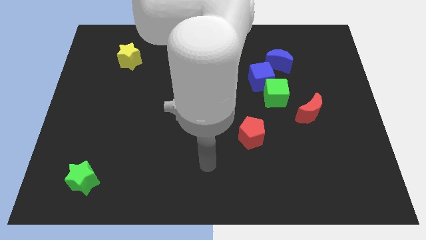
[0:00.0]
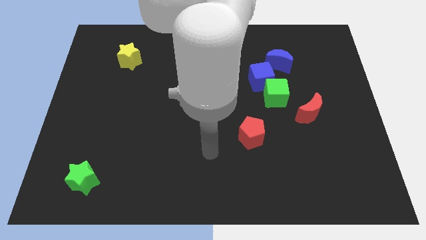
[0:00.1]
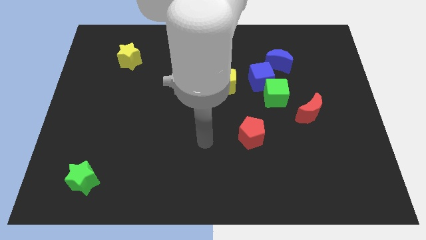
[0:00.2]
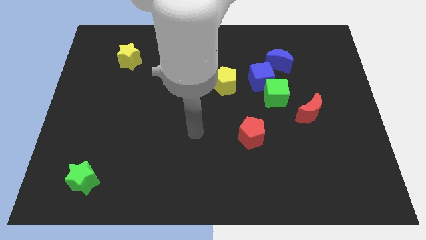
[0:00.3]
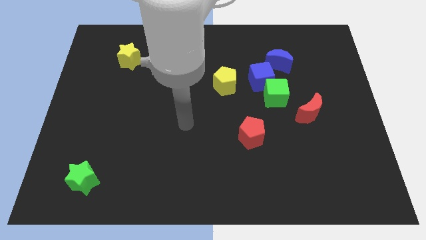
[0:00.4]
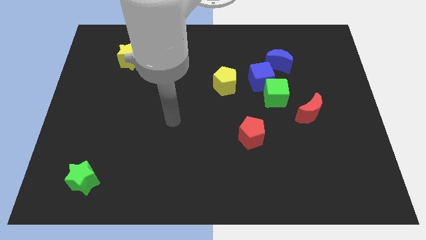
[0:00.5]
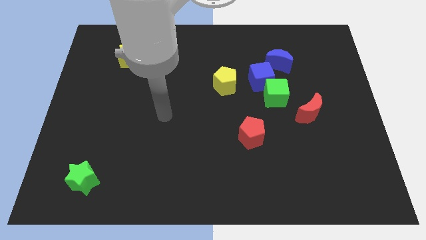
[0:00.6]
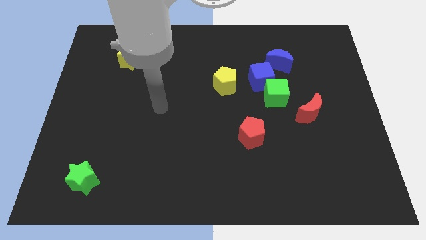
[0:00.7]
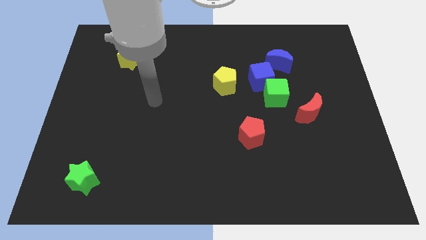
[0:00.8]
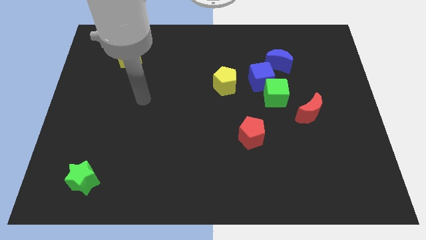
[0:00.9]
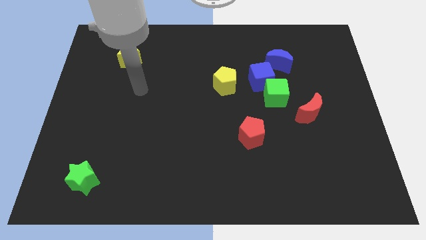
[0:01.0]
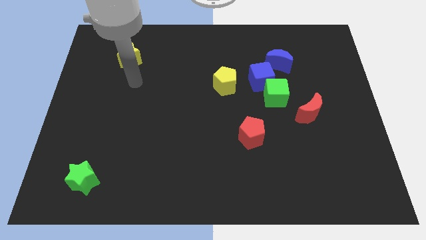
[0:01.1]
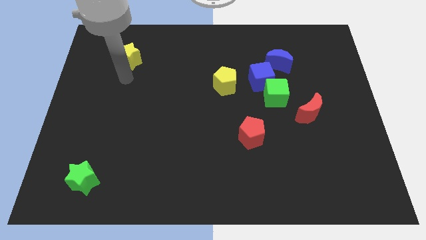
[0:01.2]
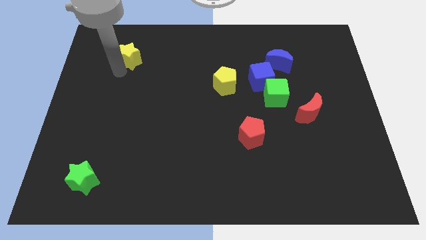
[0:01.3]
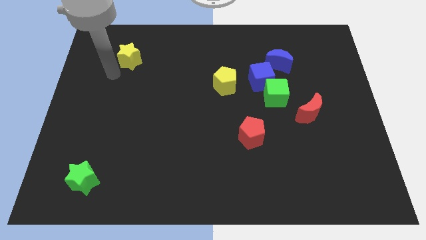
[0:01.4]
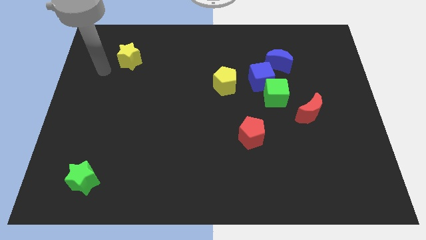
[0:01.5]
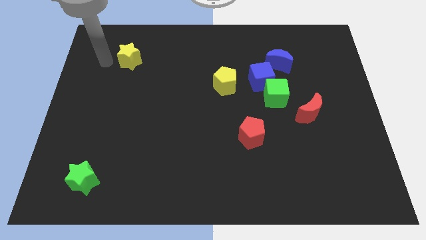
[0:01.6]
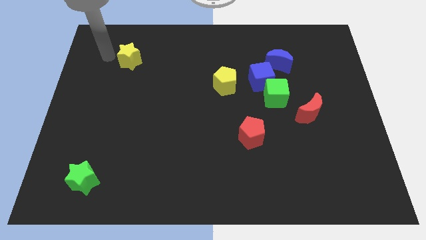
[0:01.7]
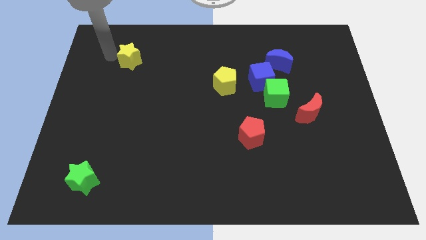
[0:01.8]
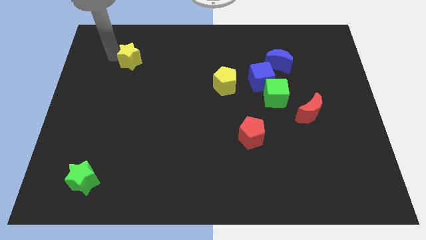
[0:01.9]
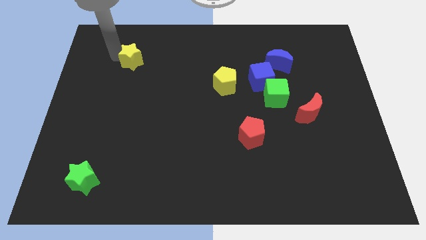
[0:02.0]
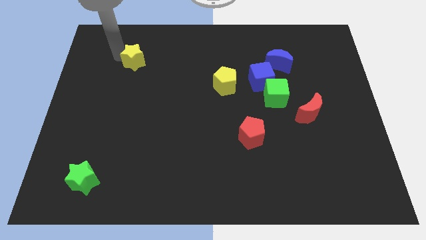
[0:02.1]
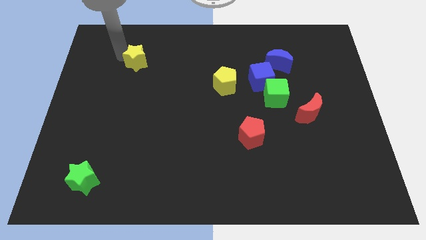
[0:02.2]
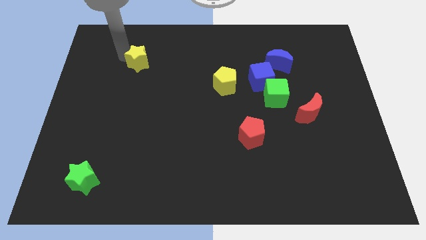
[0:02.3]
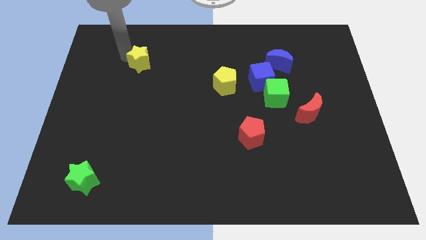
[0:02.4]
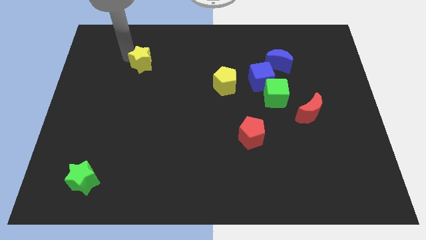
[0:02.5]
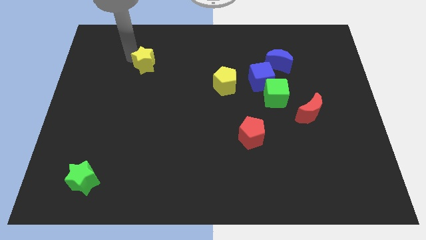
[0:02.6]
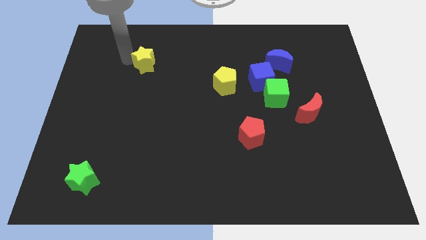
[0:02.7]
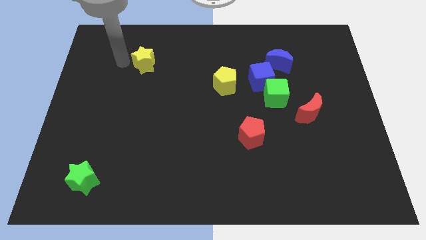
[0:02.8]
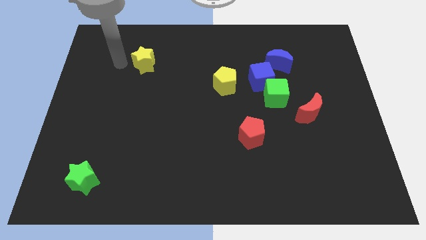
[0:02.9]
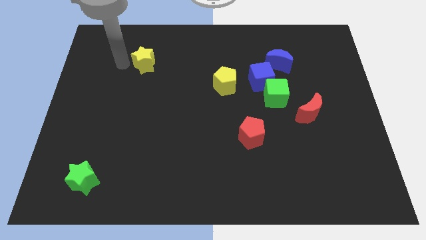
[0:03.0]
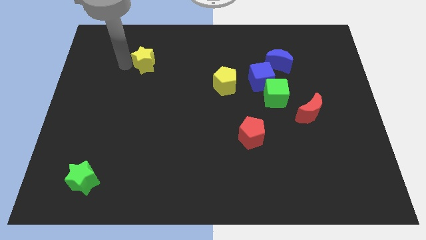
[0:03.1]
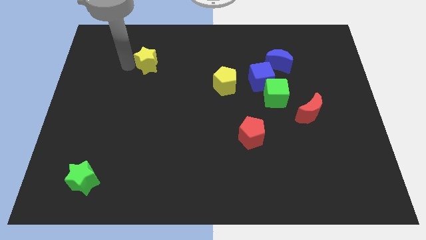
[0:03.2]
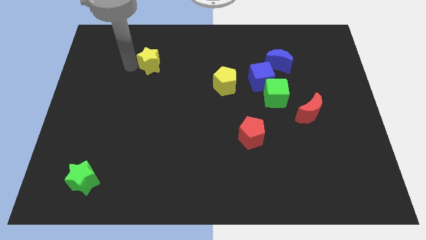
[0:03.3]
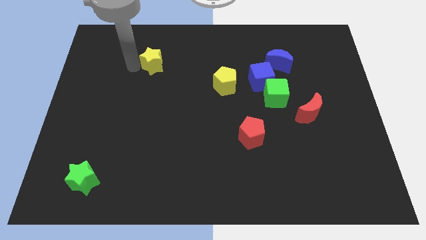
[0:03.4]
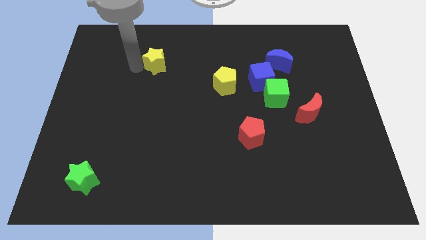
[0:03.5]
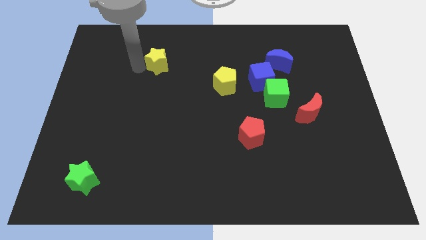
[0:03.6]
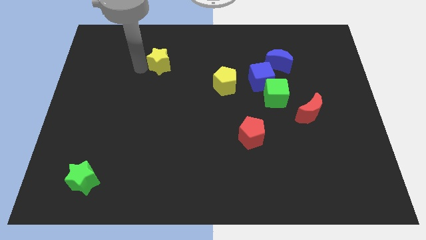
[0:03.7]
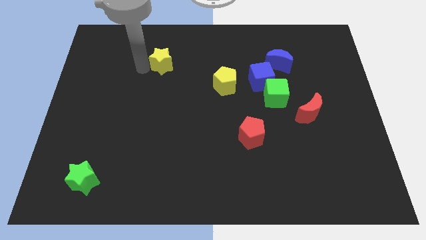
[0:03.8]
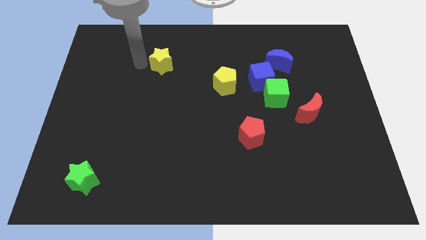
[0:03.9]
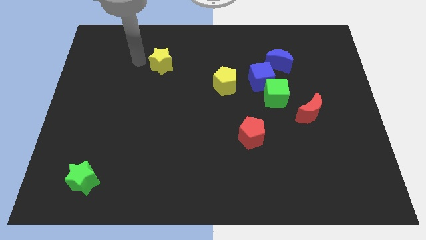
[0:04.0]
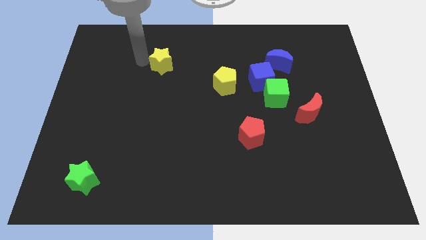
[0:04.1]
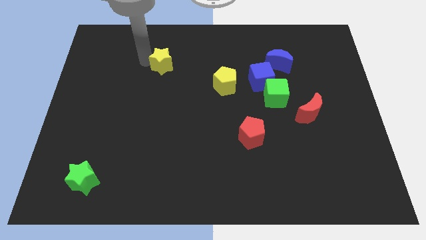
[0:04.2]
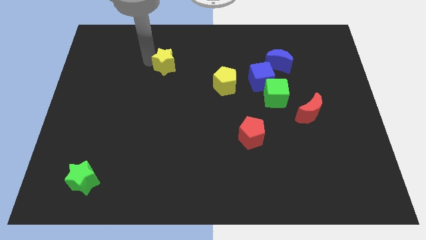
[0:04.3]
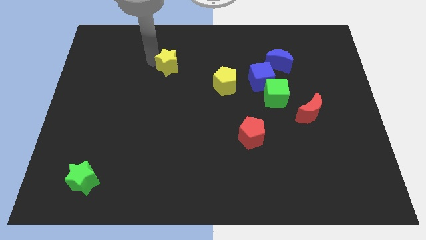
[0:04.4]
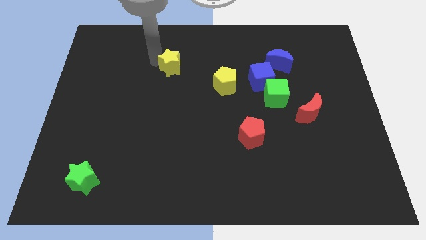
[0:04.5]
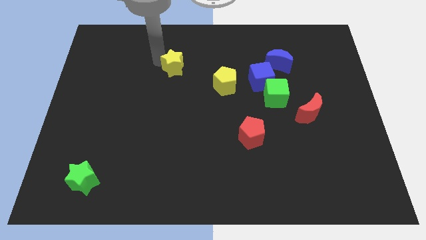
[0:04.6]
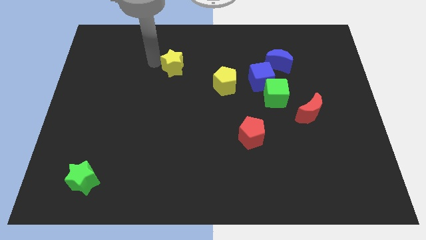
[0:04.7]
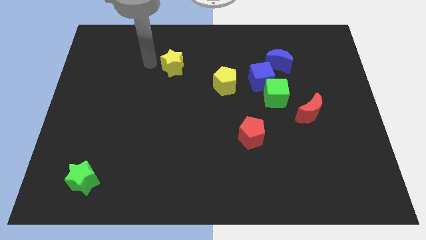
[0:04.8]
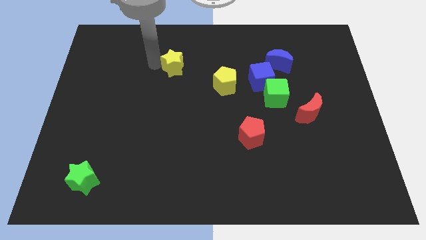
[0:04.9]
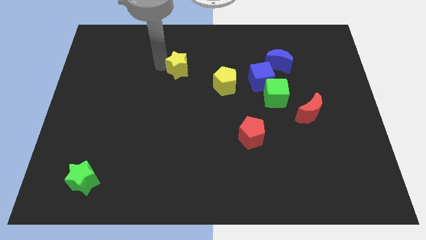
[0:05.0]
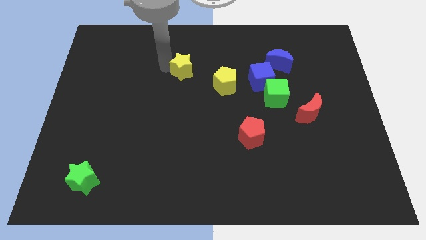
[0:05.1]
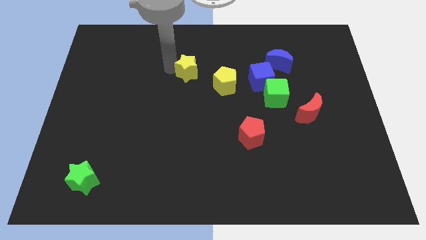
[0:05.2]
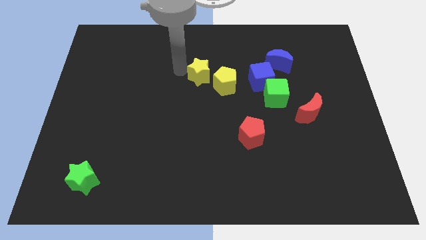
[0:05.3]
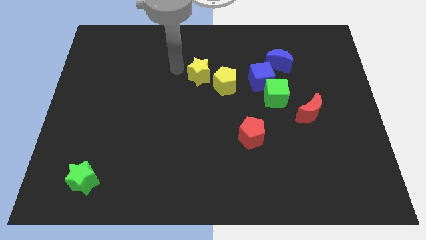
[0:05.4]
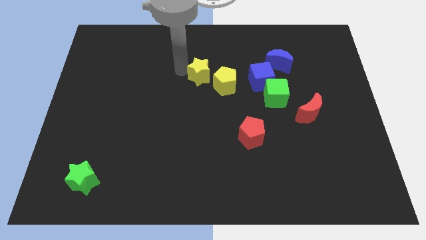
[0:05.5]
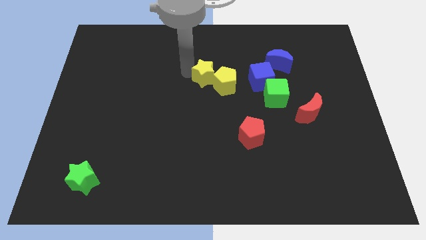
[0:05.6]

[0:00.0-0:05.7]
put the yellow star towards the yellow pentagon

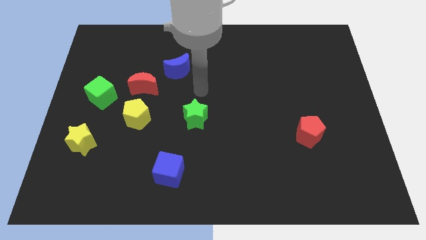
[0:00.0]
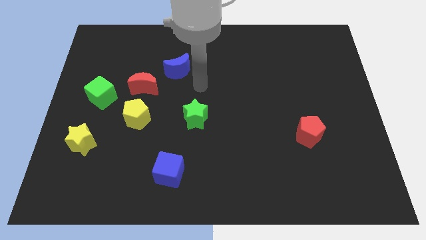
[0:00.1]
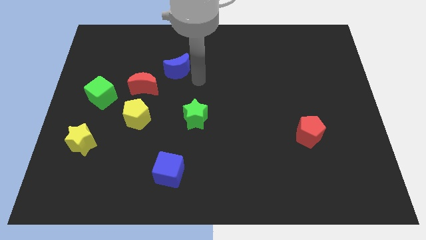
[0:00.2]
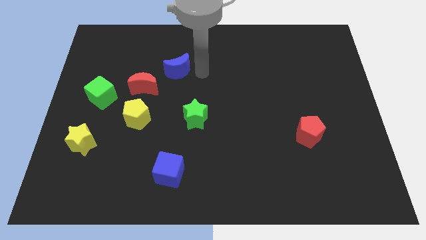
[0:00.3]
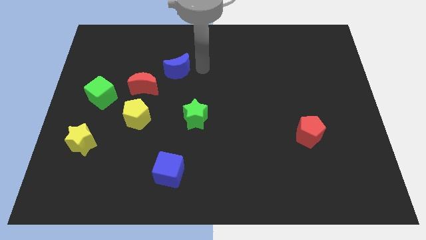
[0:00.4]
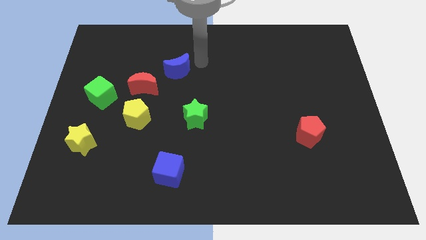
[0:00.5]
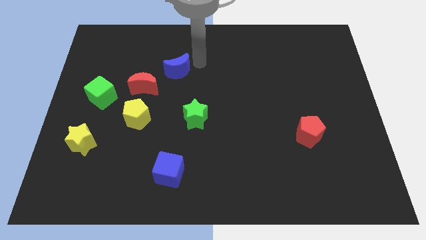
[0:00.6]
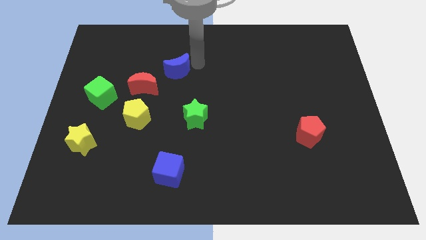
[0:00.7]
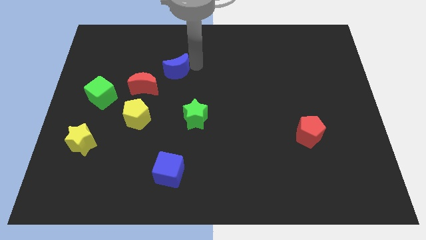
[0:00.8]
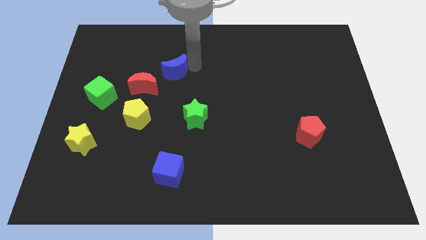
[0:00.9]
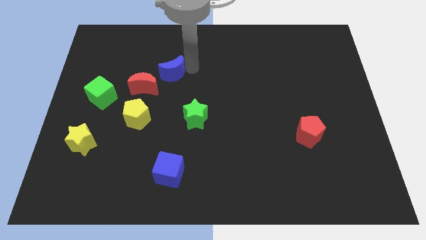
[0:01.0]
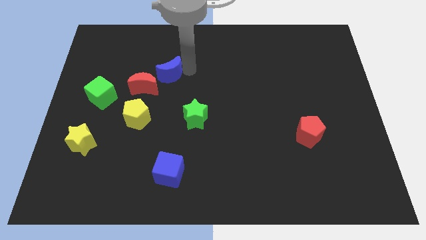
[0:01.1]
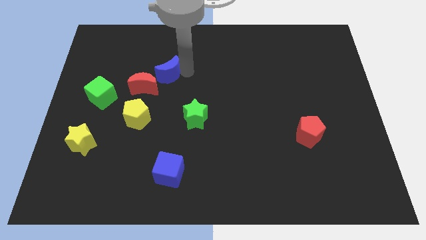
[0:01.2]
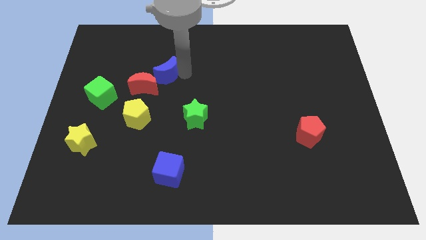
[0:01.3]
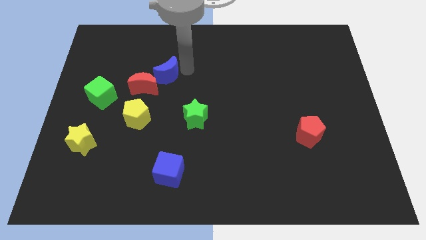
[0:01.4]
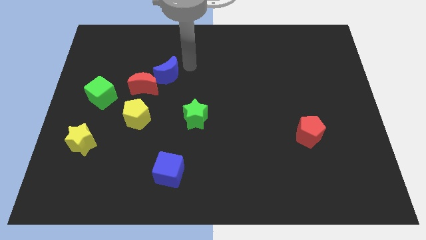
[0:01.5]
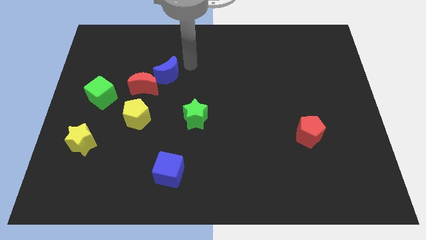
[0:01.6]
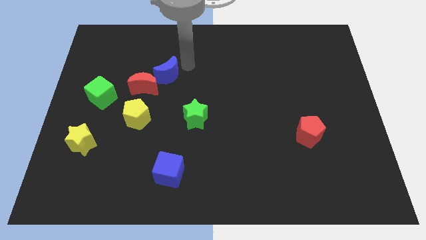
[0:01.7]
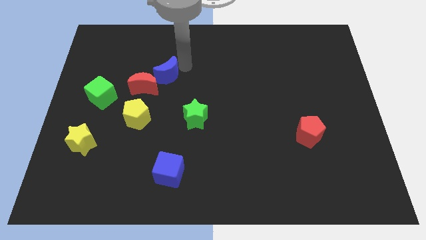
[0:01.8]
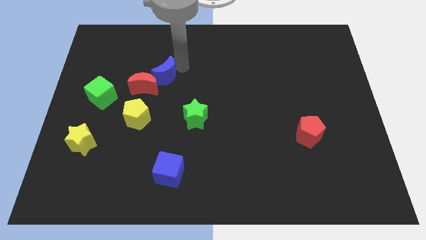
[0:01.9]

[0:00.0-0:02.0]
move the blue moon close to the red moon

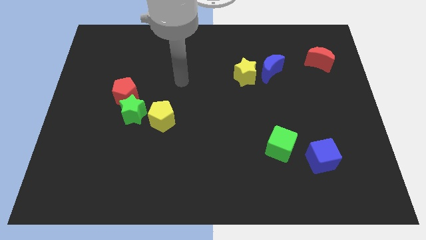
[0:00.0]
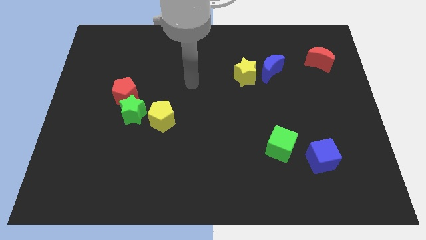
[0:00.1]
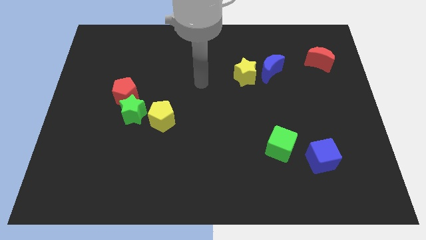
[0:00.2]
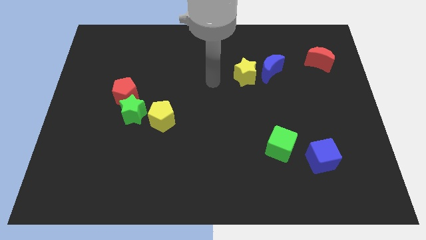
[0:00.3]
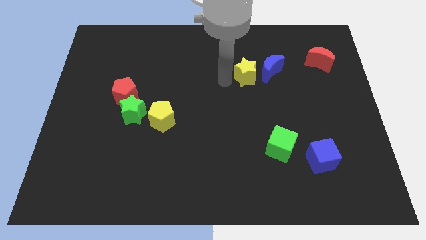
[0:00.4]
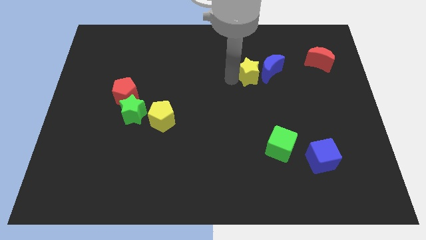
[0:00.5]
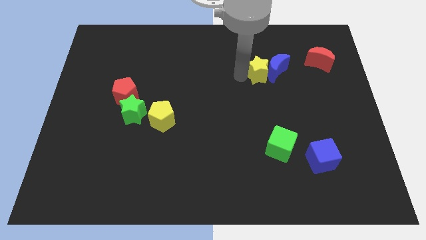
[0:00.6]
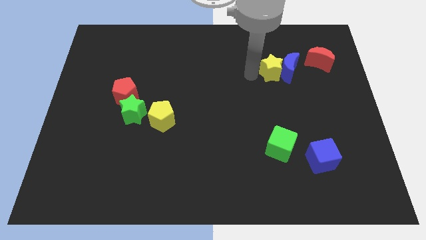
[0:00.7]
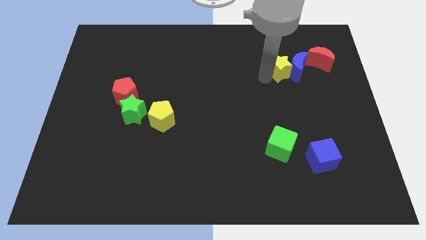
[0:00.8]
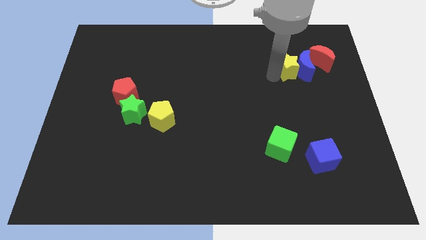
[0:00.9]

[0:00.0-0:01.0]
slide the blue moon close to the red moon
